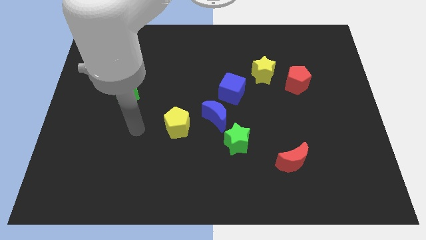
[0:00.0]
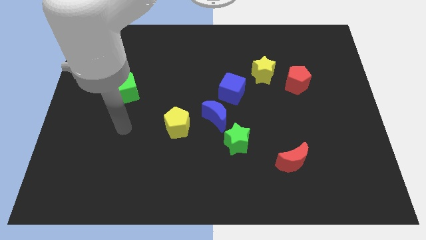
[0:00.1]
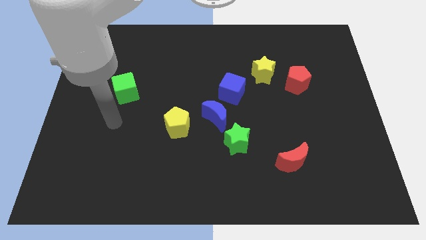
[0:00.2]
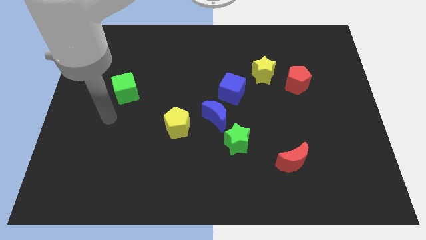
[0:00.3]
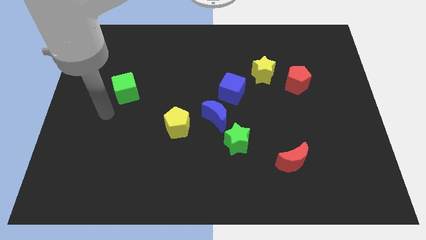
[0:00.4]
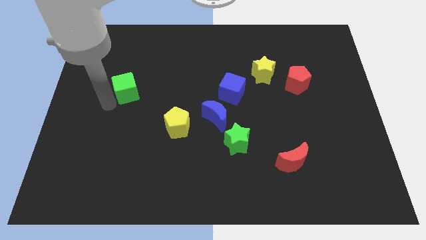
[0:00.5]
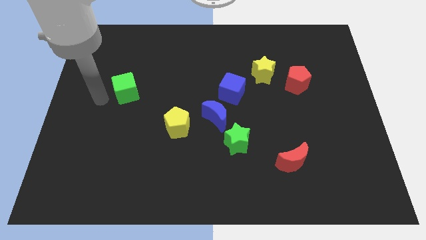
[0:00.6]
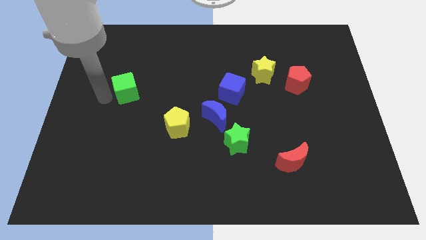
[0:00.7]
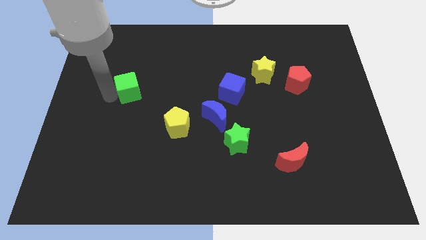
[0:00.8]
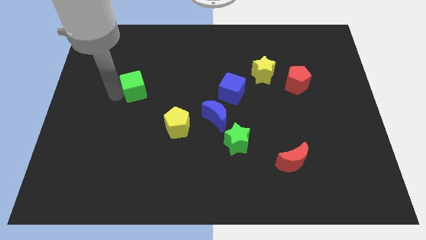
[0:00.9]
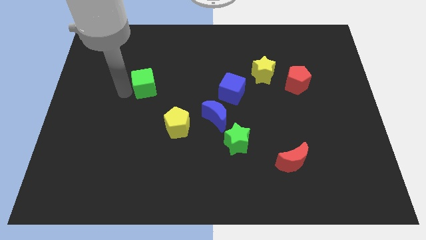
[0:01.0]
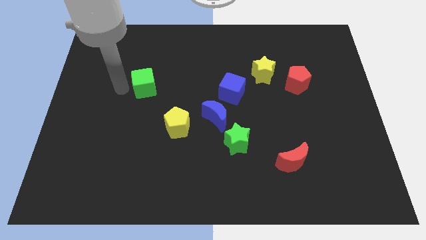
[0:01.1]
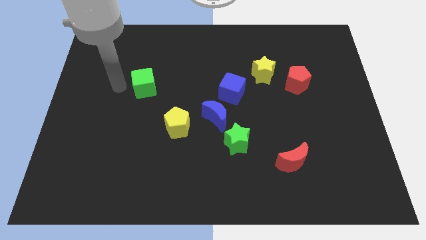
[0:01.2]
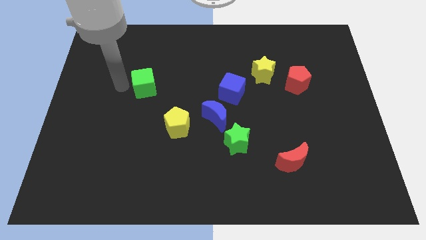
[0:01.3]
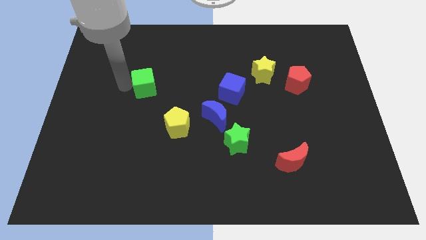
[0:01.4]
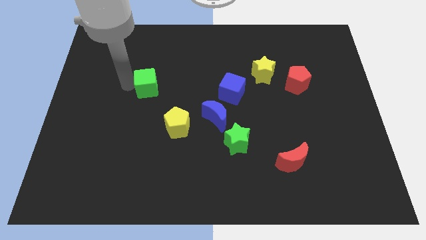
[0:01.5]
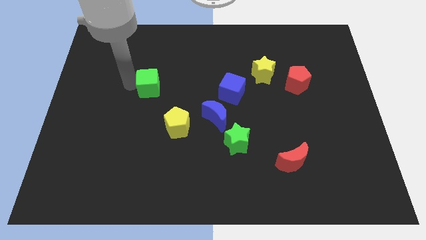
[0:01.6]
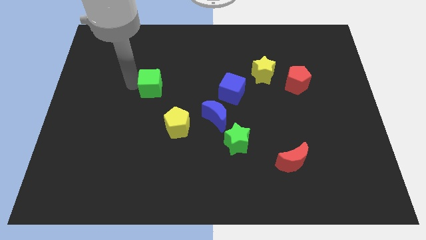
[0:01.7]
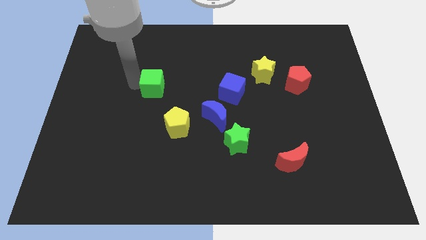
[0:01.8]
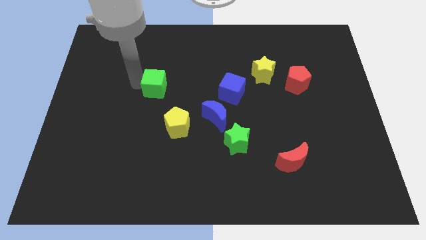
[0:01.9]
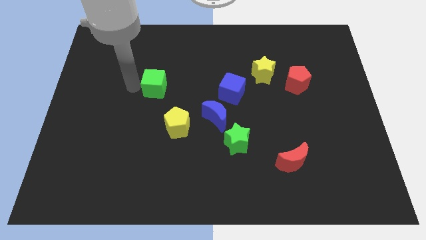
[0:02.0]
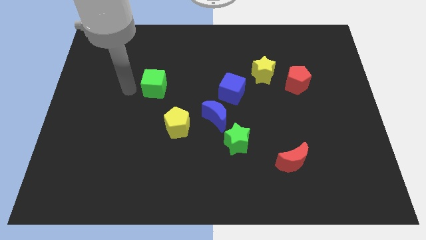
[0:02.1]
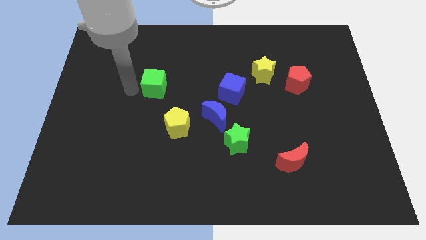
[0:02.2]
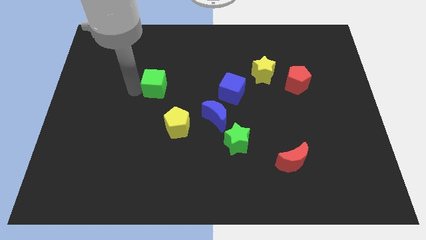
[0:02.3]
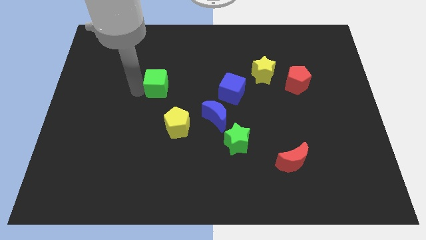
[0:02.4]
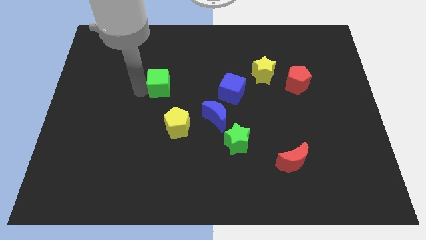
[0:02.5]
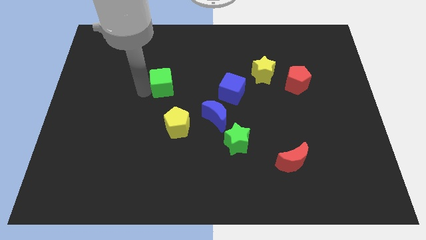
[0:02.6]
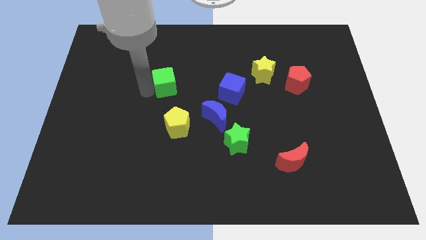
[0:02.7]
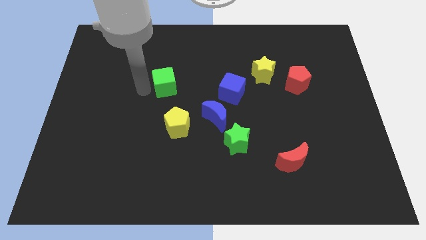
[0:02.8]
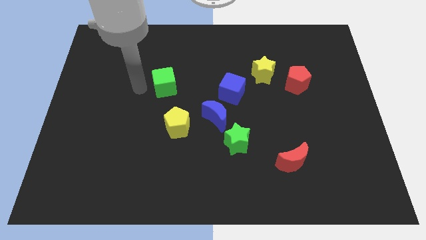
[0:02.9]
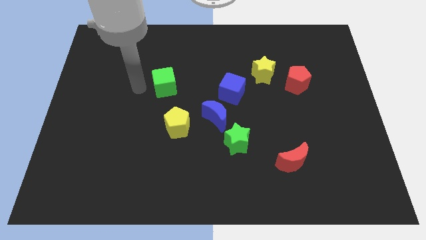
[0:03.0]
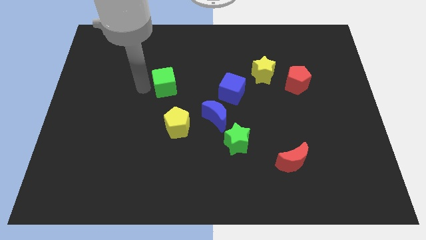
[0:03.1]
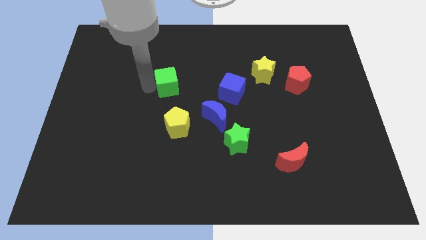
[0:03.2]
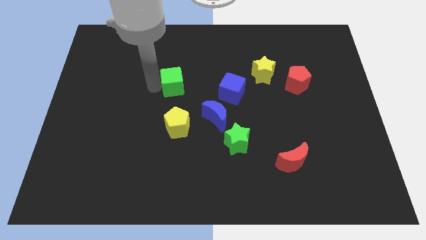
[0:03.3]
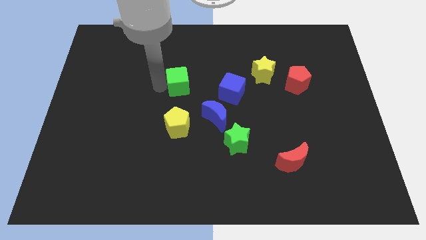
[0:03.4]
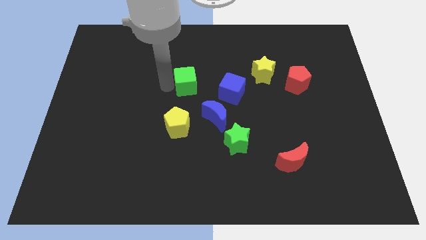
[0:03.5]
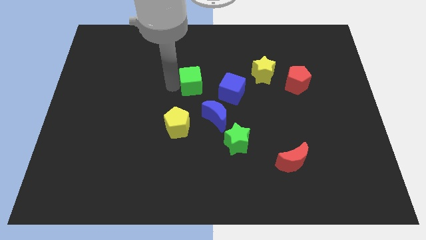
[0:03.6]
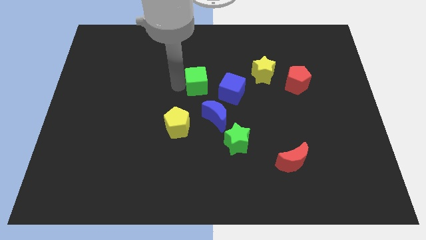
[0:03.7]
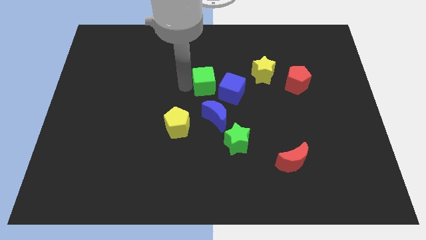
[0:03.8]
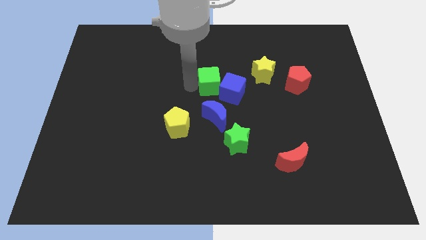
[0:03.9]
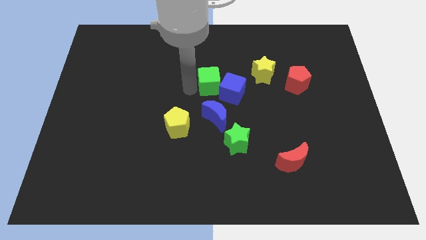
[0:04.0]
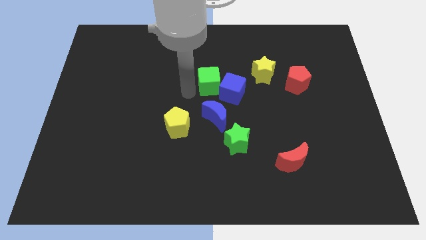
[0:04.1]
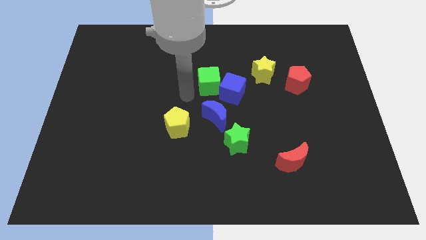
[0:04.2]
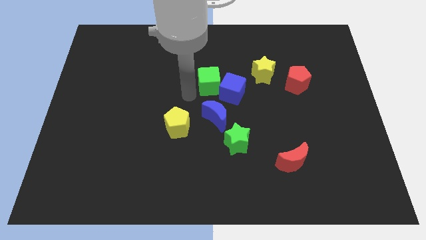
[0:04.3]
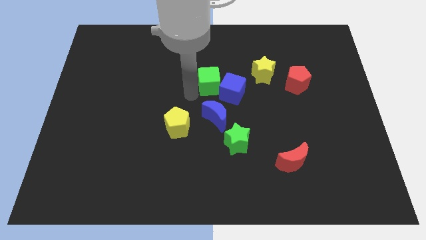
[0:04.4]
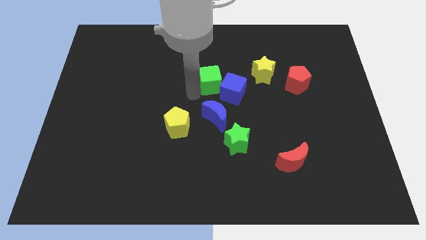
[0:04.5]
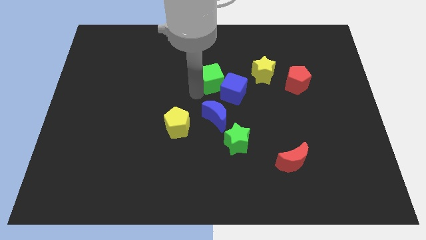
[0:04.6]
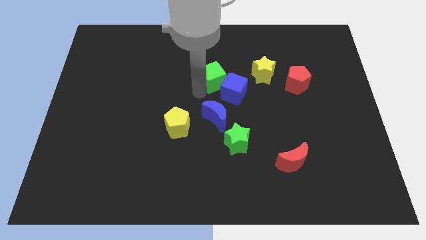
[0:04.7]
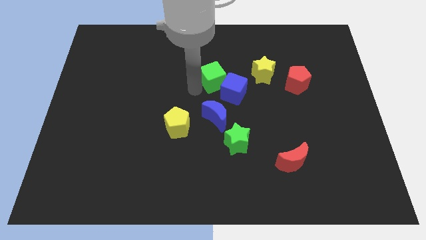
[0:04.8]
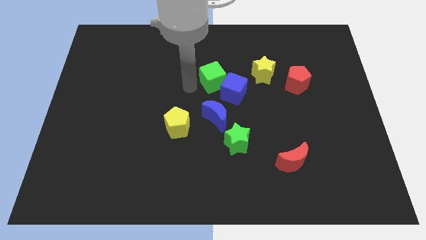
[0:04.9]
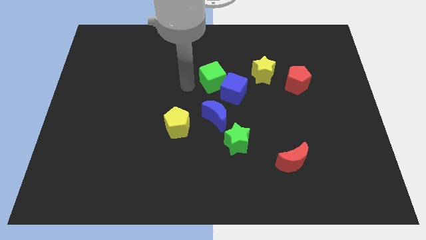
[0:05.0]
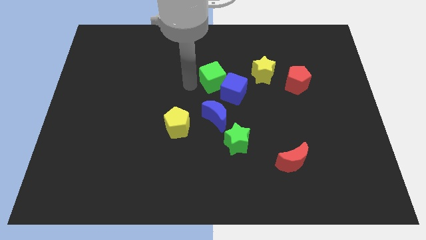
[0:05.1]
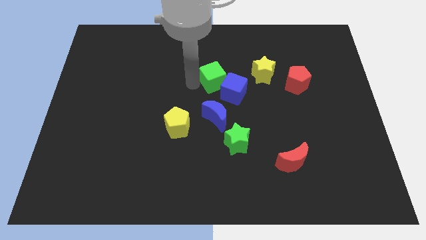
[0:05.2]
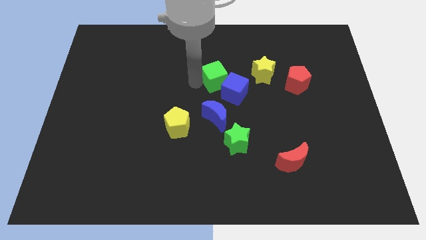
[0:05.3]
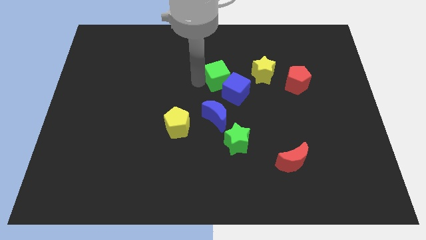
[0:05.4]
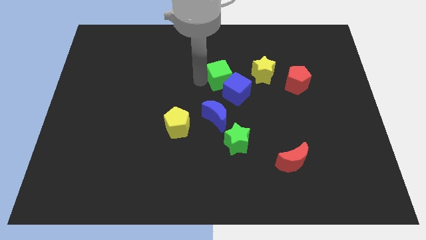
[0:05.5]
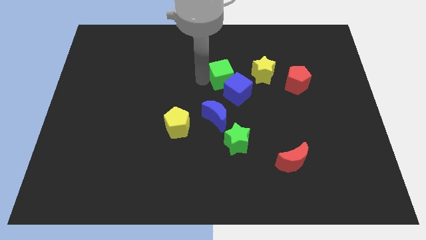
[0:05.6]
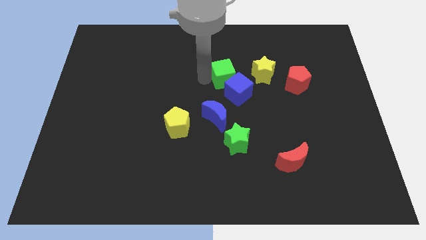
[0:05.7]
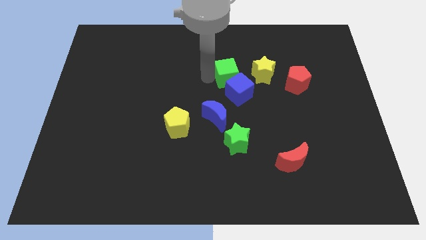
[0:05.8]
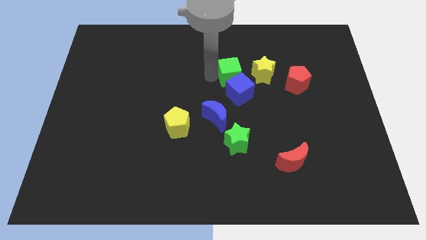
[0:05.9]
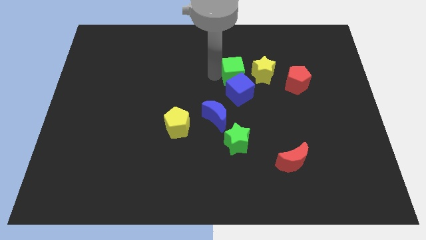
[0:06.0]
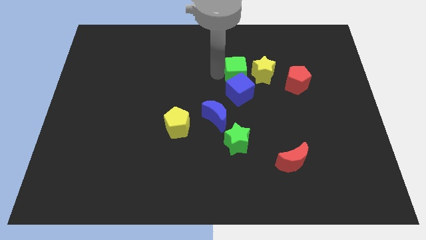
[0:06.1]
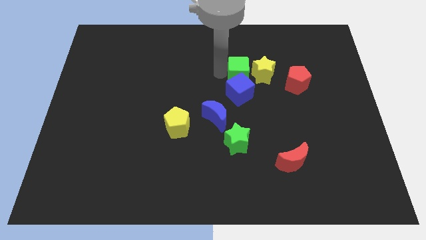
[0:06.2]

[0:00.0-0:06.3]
slide the green cube to the yellow star

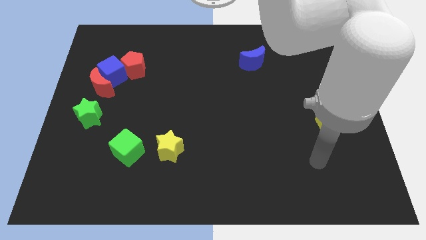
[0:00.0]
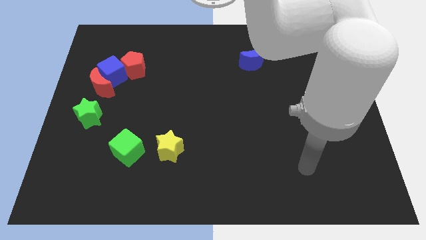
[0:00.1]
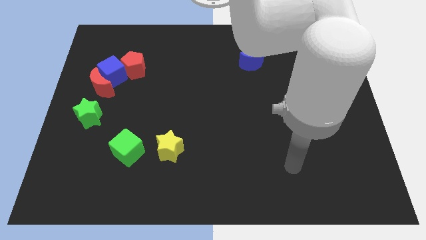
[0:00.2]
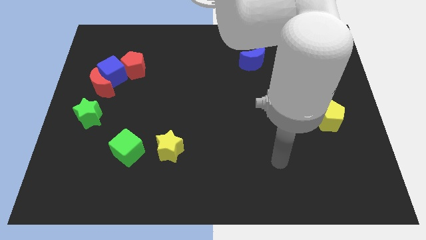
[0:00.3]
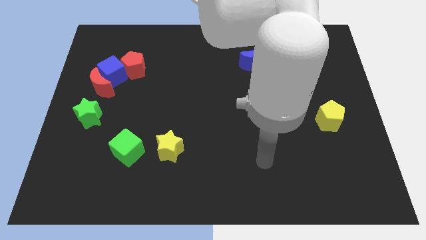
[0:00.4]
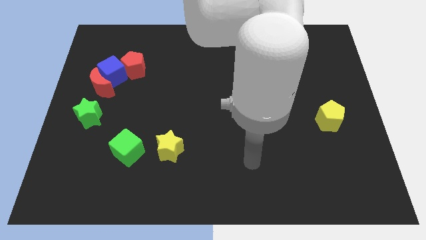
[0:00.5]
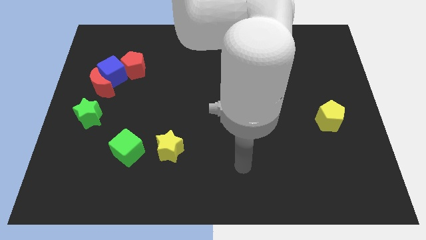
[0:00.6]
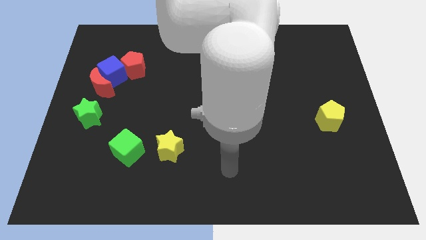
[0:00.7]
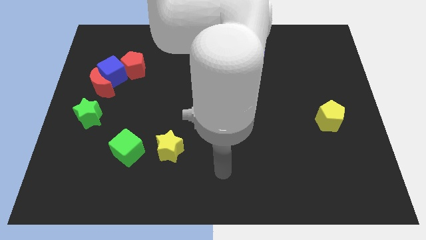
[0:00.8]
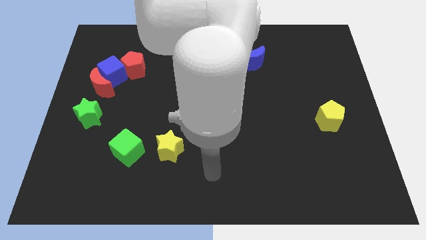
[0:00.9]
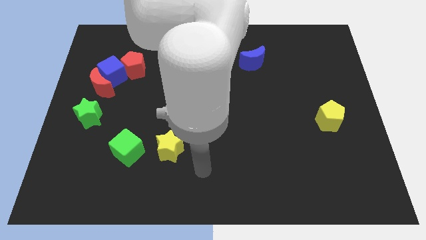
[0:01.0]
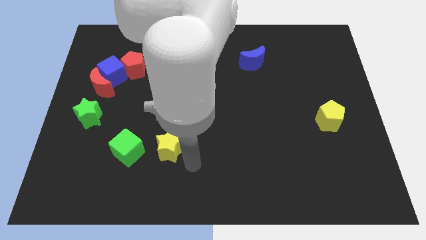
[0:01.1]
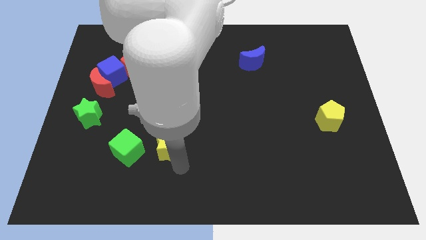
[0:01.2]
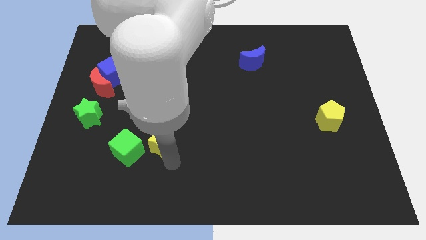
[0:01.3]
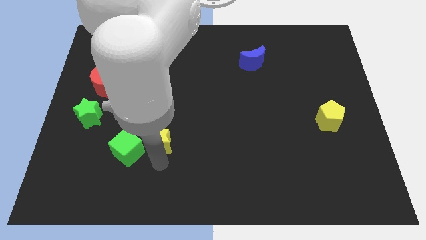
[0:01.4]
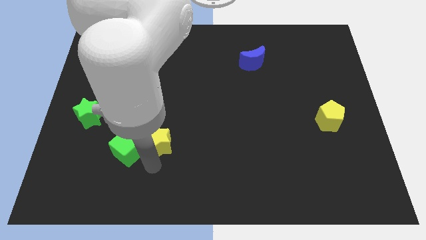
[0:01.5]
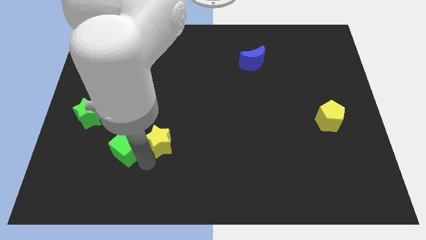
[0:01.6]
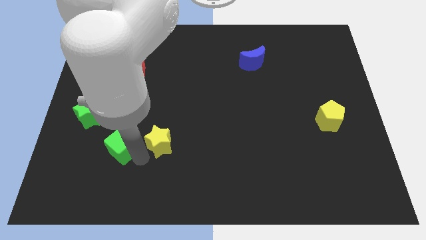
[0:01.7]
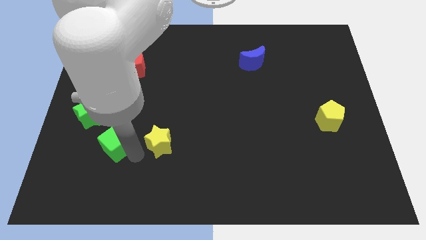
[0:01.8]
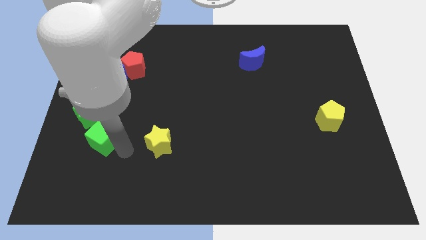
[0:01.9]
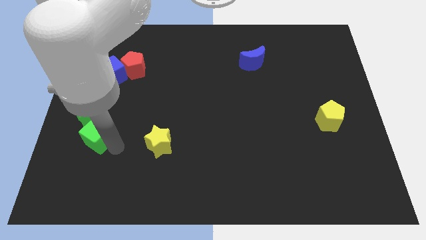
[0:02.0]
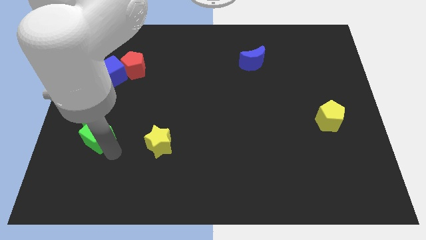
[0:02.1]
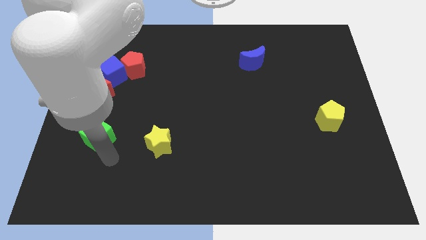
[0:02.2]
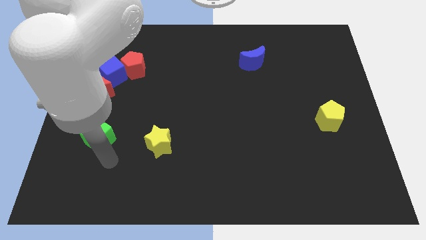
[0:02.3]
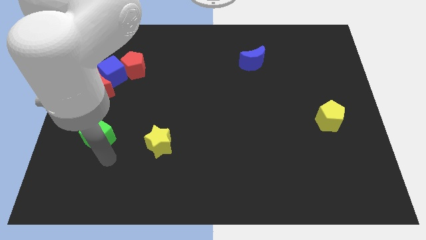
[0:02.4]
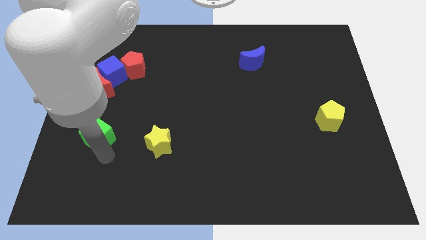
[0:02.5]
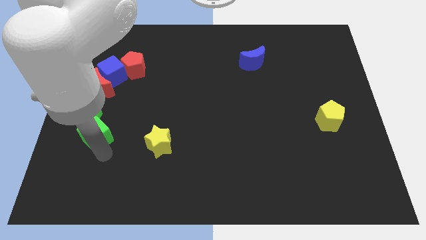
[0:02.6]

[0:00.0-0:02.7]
slide the green cube to the green star
